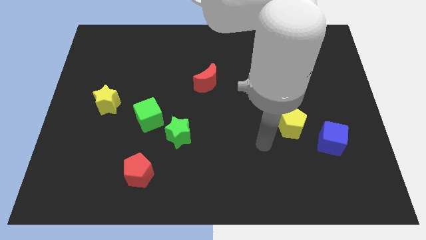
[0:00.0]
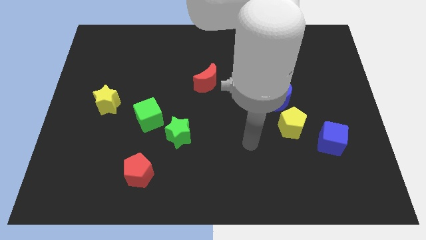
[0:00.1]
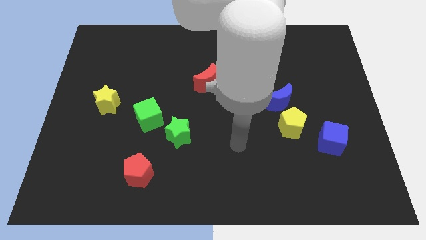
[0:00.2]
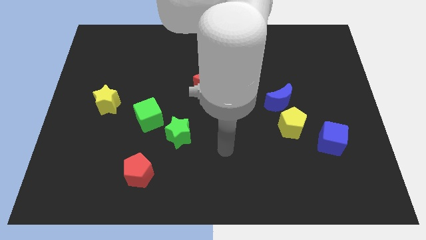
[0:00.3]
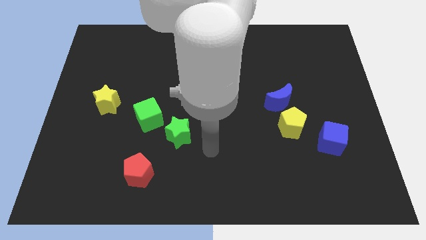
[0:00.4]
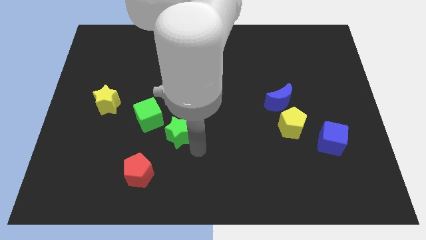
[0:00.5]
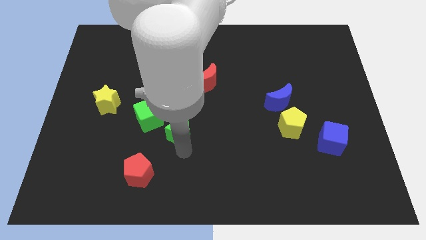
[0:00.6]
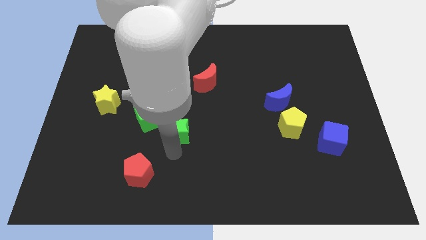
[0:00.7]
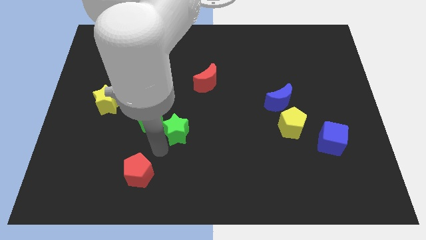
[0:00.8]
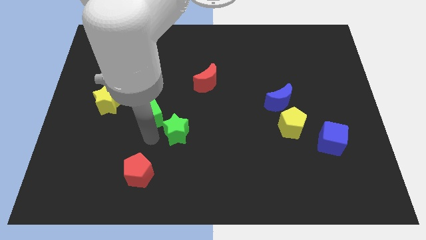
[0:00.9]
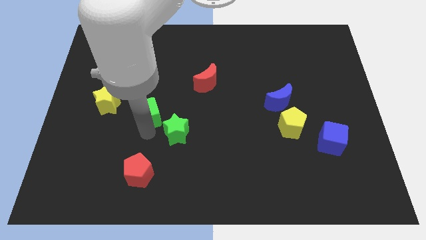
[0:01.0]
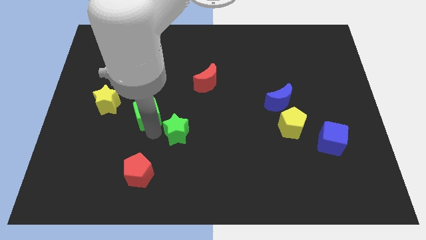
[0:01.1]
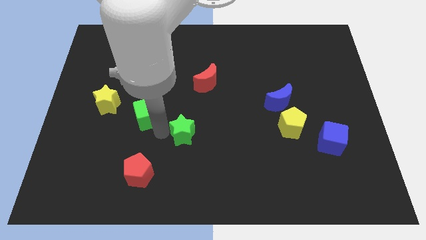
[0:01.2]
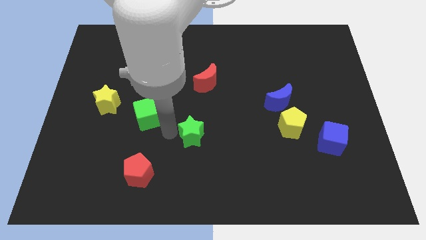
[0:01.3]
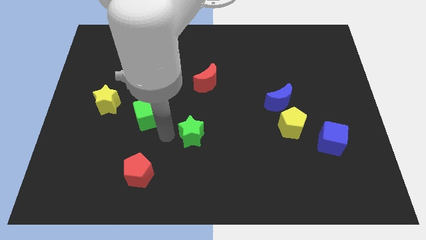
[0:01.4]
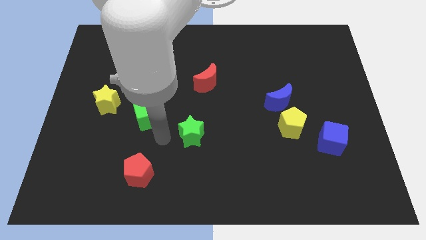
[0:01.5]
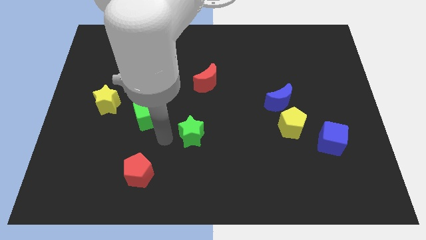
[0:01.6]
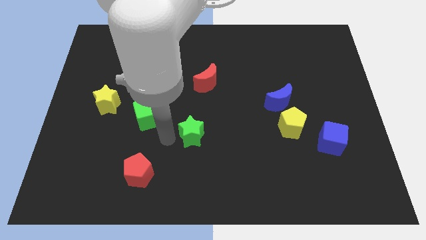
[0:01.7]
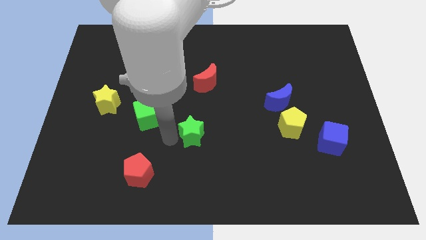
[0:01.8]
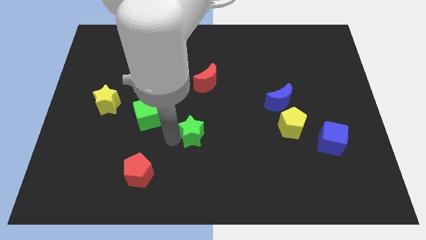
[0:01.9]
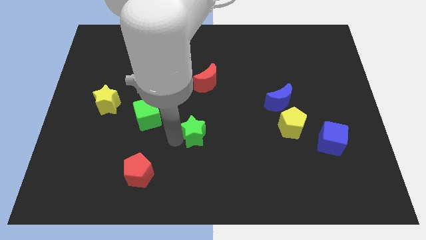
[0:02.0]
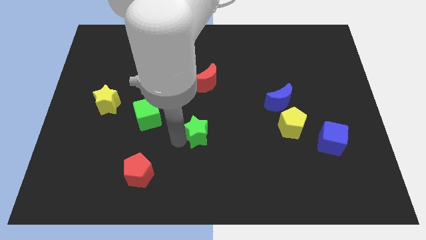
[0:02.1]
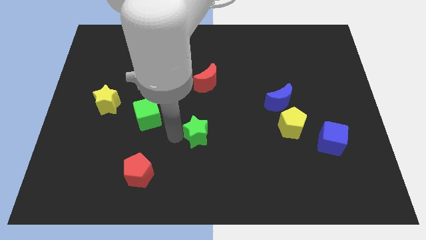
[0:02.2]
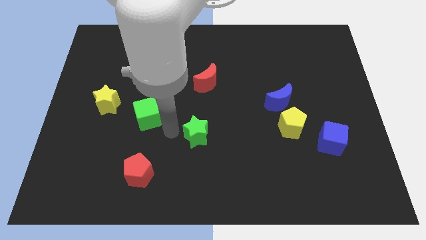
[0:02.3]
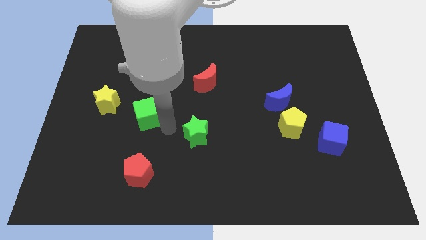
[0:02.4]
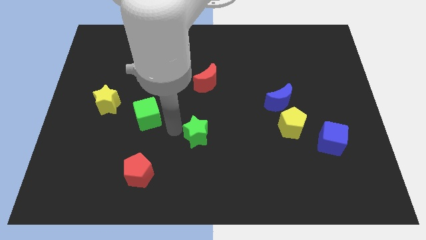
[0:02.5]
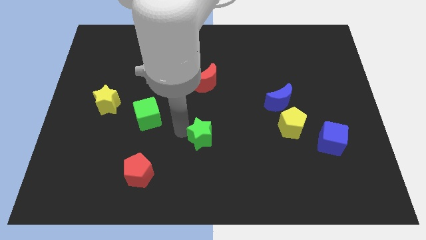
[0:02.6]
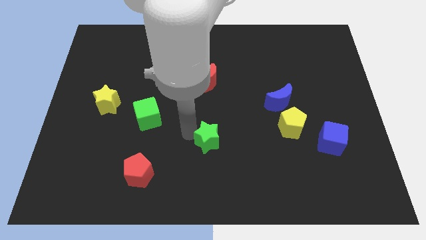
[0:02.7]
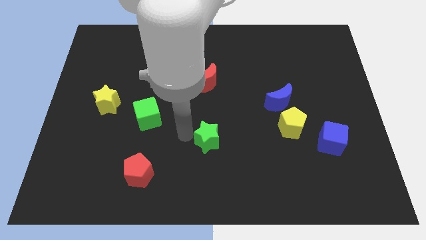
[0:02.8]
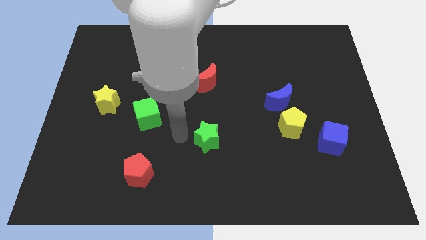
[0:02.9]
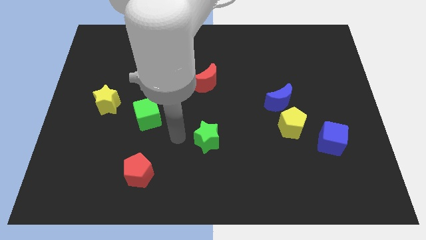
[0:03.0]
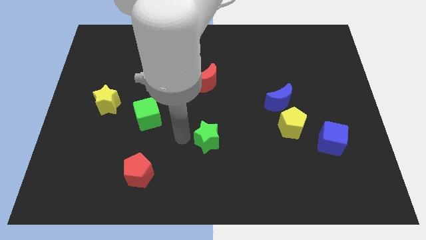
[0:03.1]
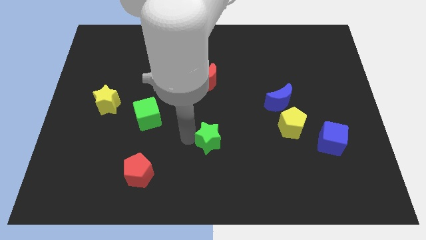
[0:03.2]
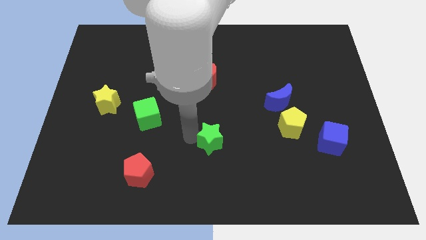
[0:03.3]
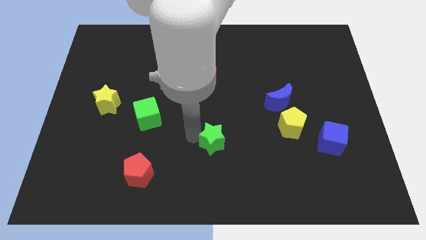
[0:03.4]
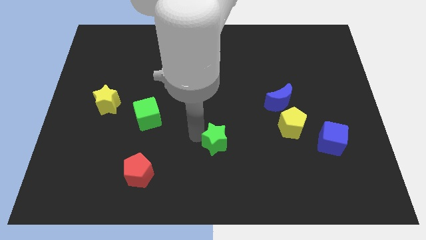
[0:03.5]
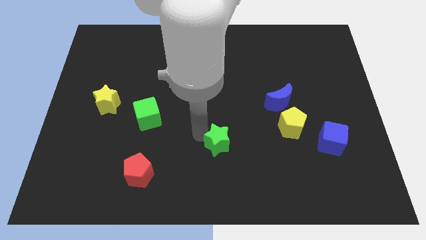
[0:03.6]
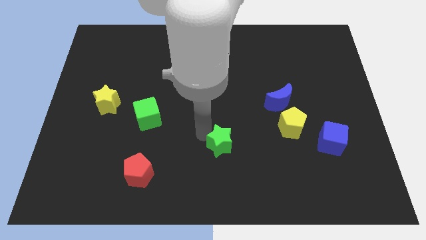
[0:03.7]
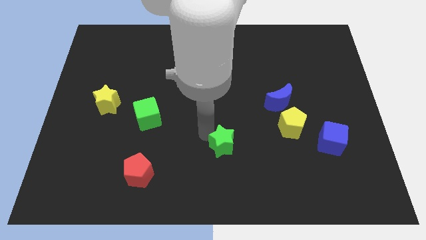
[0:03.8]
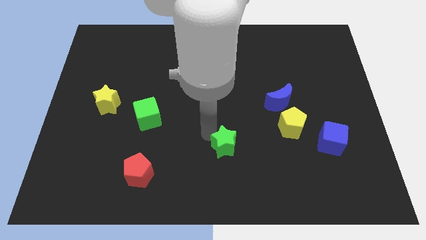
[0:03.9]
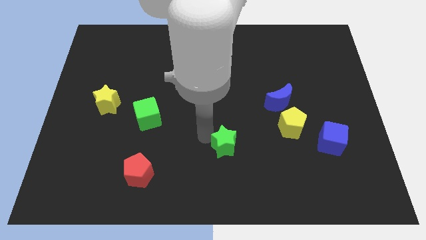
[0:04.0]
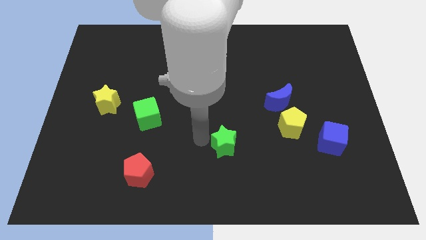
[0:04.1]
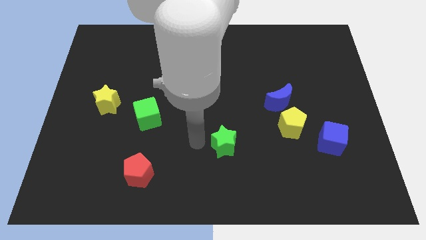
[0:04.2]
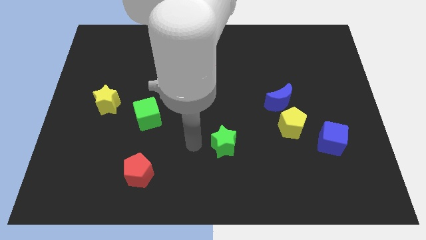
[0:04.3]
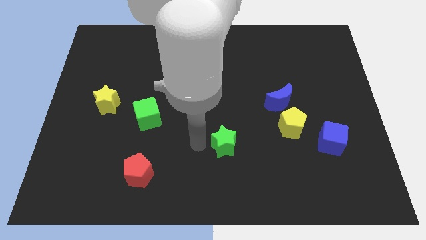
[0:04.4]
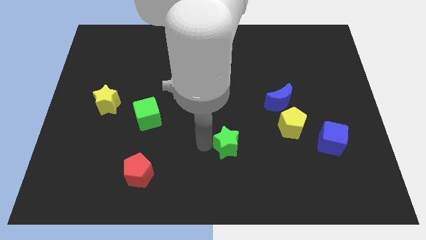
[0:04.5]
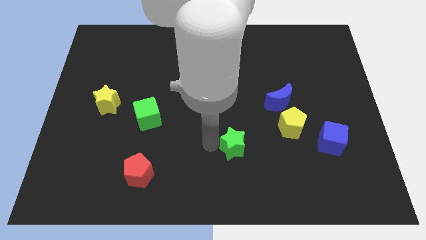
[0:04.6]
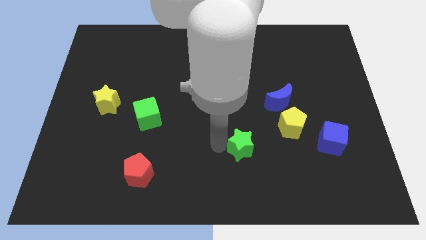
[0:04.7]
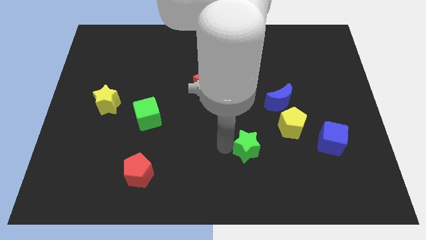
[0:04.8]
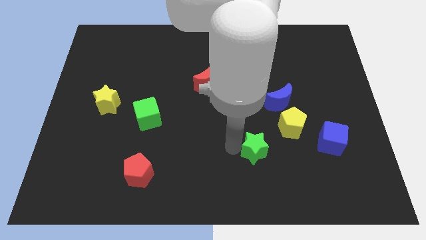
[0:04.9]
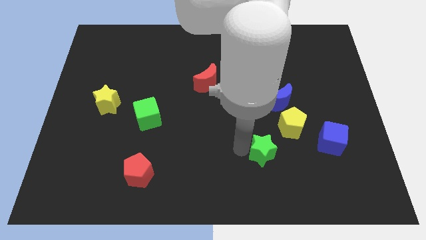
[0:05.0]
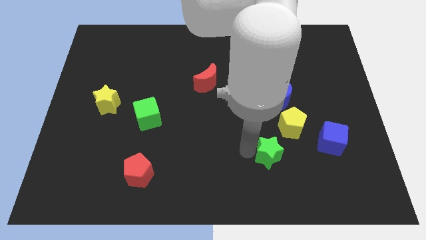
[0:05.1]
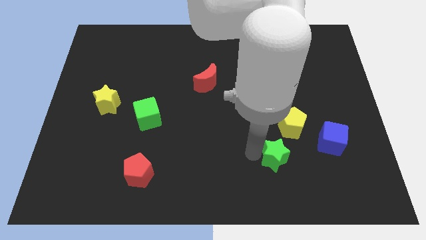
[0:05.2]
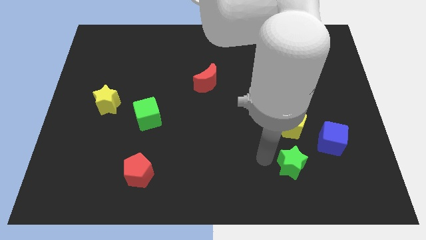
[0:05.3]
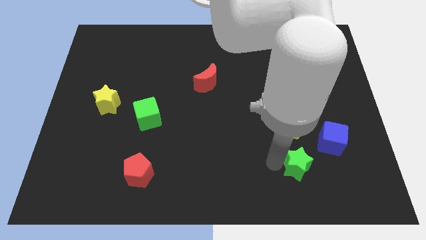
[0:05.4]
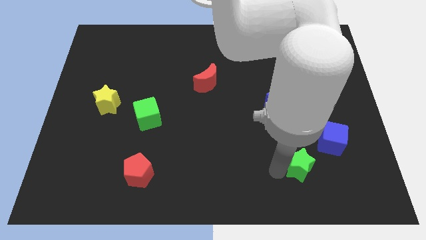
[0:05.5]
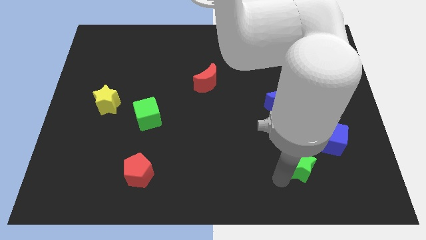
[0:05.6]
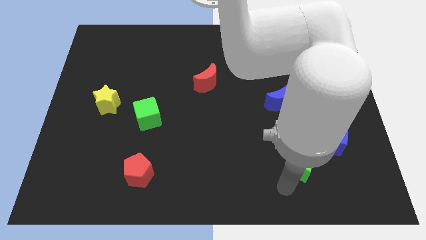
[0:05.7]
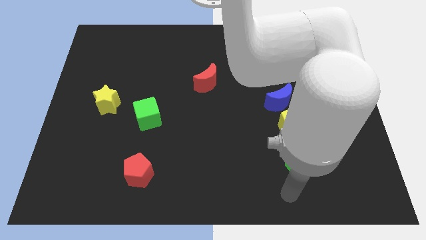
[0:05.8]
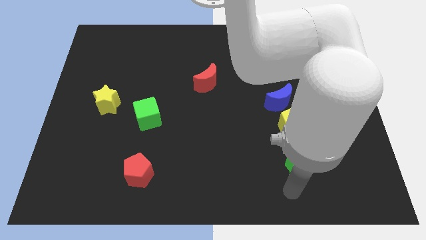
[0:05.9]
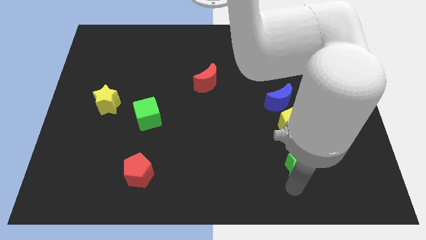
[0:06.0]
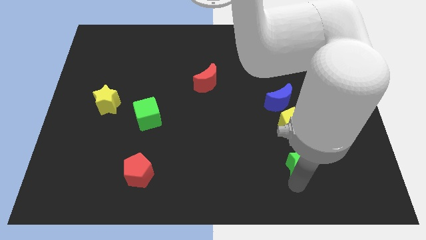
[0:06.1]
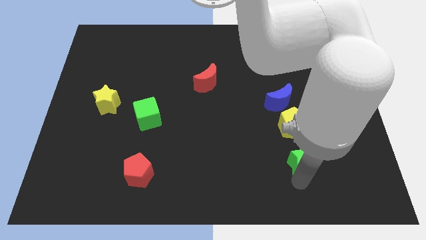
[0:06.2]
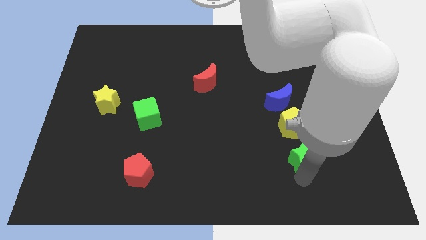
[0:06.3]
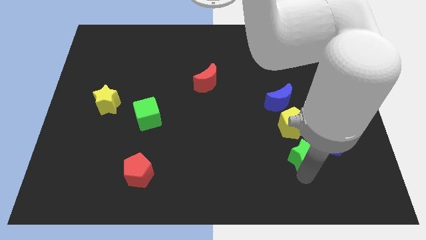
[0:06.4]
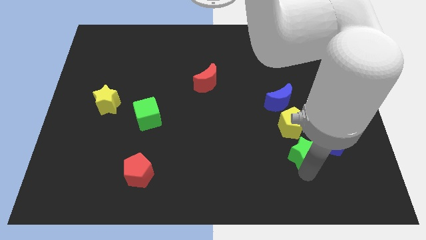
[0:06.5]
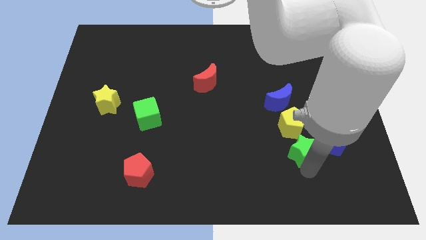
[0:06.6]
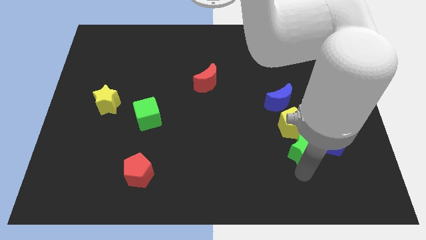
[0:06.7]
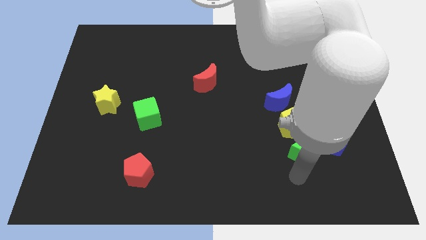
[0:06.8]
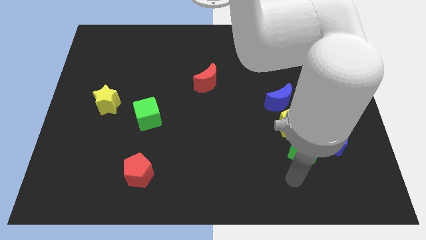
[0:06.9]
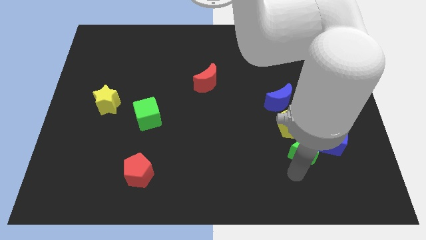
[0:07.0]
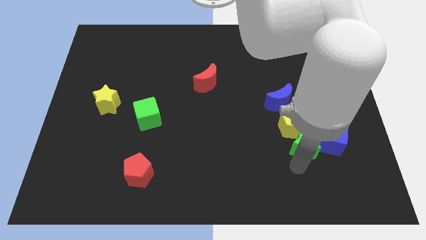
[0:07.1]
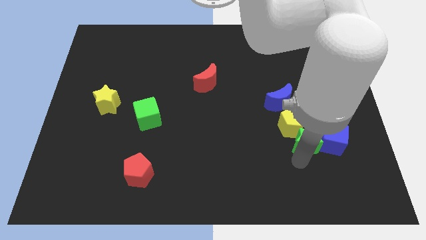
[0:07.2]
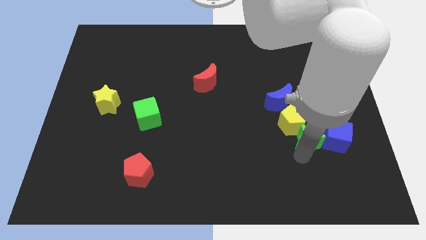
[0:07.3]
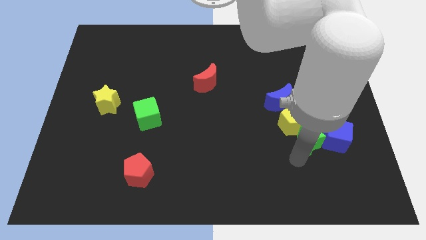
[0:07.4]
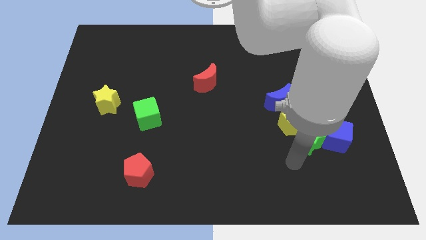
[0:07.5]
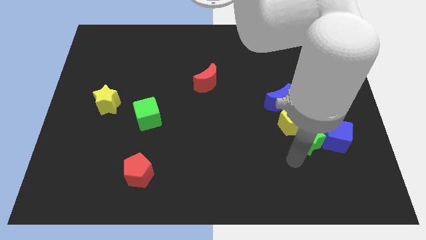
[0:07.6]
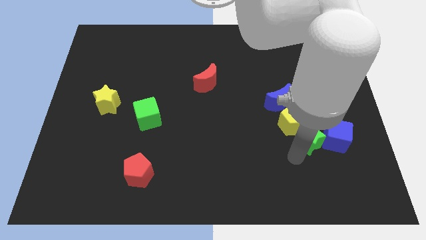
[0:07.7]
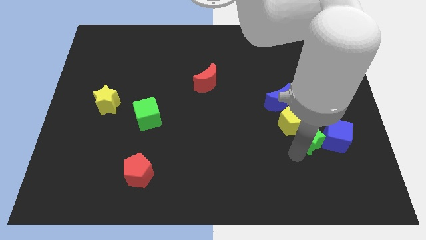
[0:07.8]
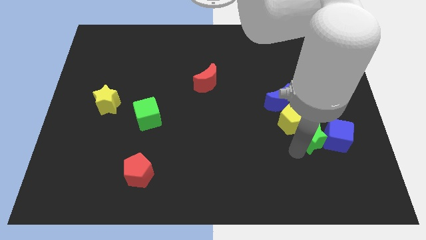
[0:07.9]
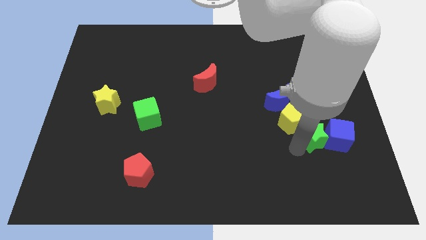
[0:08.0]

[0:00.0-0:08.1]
push the green star diagonally down and to the right of the blue moon
